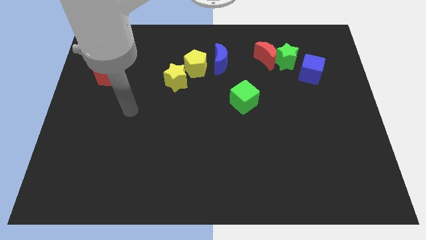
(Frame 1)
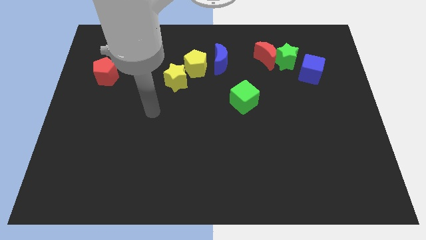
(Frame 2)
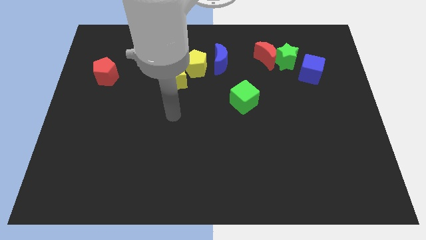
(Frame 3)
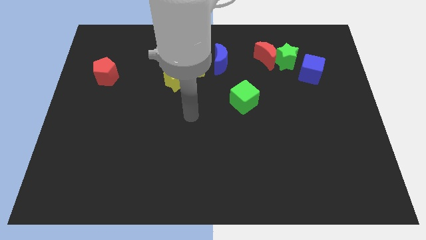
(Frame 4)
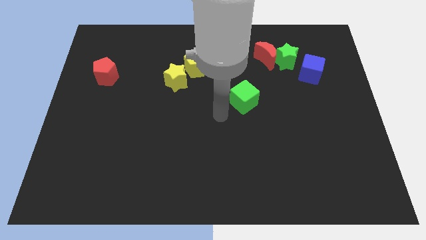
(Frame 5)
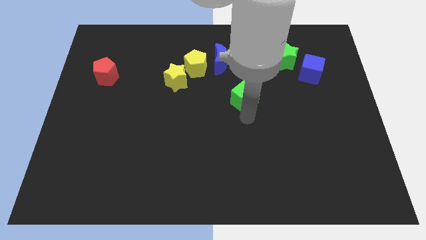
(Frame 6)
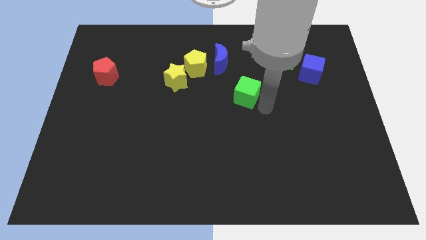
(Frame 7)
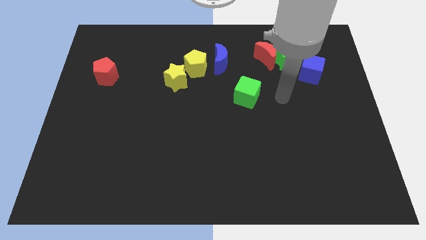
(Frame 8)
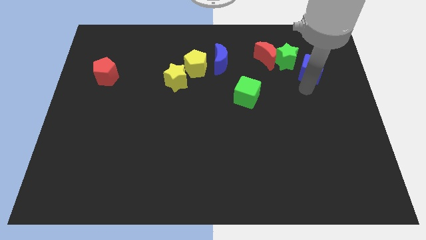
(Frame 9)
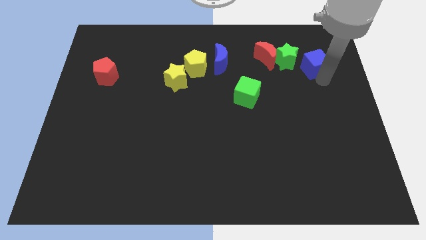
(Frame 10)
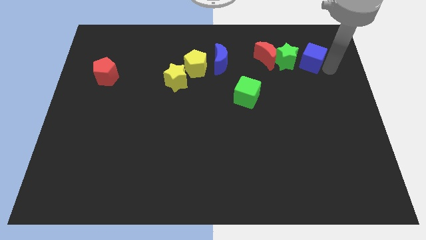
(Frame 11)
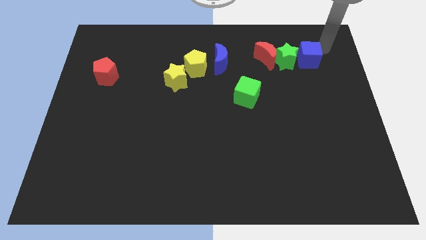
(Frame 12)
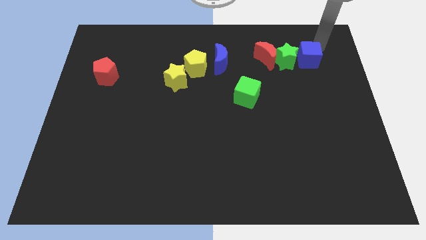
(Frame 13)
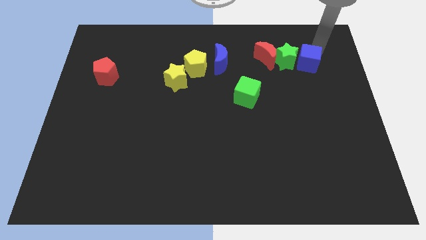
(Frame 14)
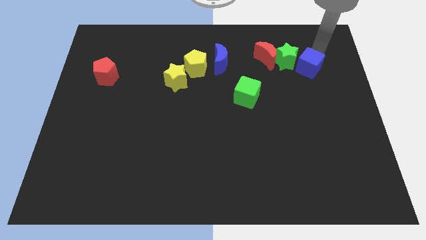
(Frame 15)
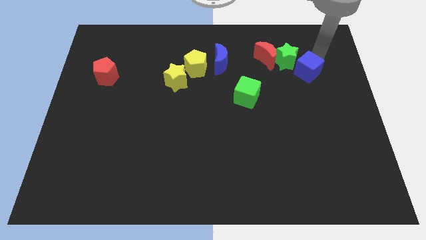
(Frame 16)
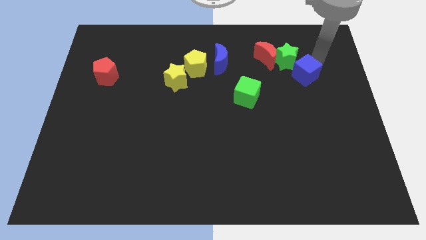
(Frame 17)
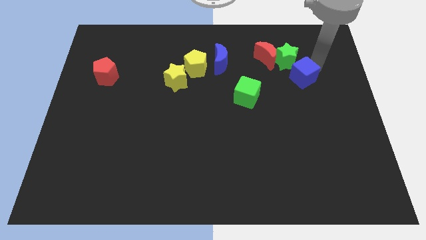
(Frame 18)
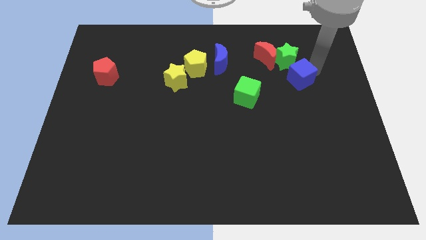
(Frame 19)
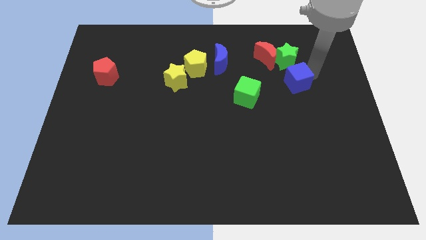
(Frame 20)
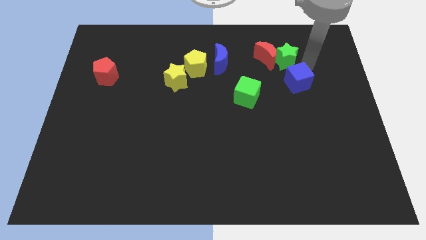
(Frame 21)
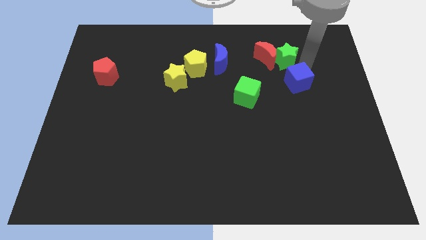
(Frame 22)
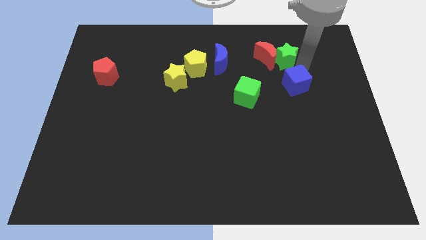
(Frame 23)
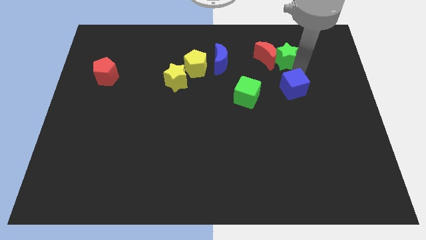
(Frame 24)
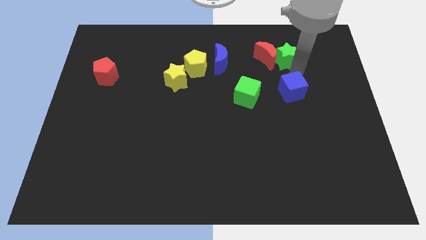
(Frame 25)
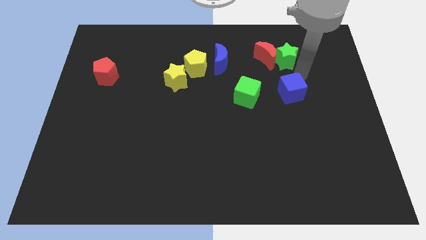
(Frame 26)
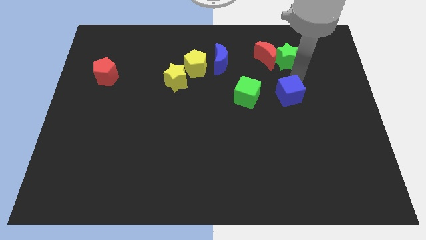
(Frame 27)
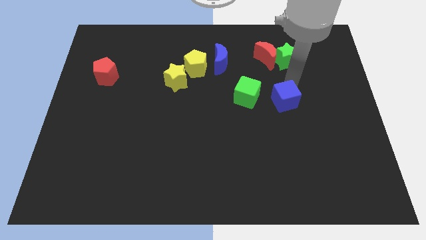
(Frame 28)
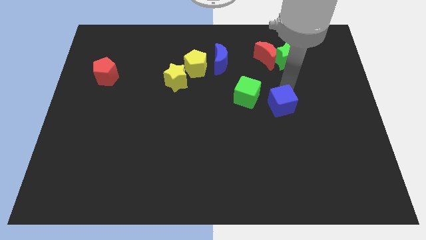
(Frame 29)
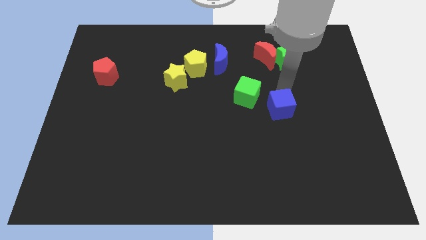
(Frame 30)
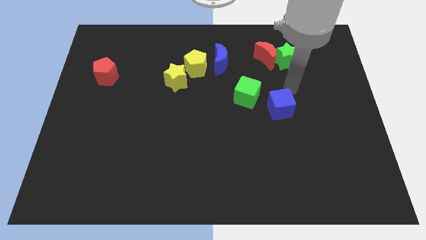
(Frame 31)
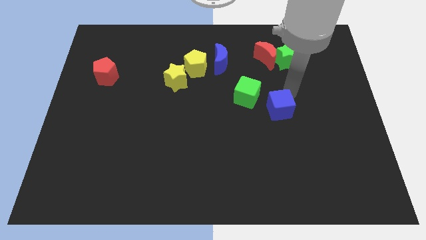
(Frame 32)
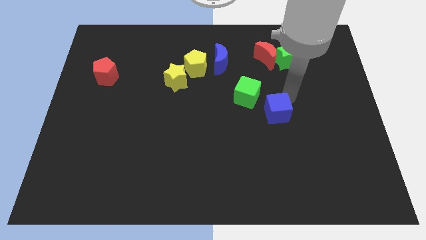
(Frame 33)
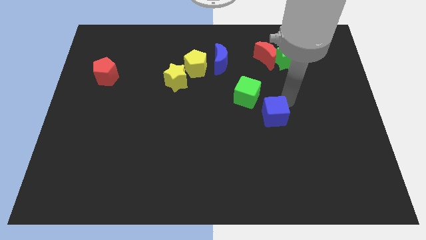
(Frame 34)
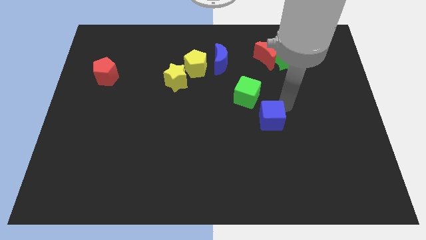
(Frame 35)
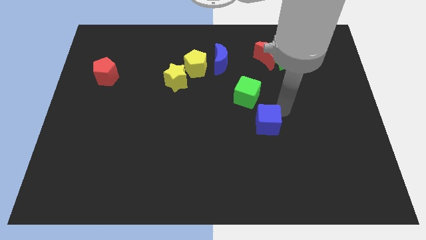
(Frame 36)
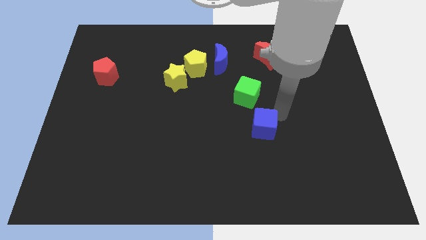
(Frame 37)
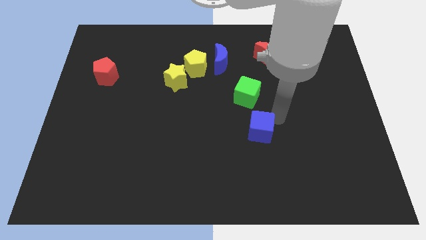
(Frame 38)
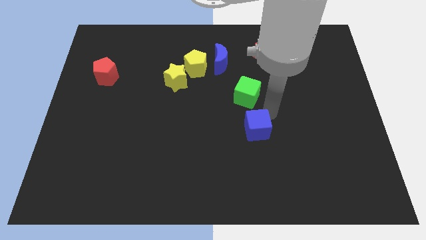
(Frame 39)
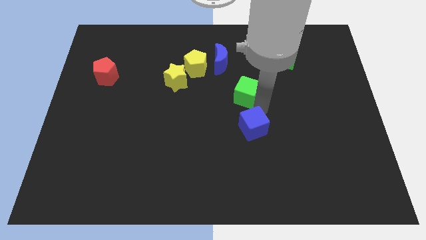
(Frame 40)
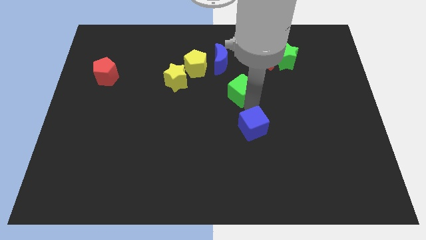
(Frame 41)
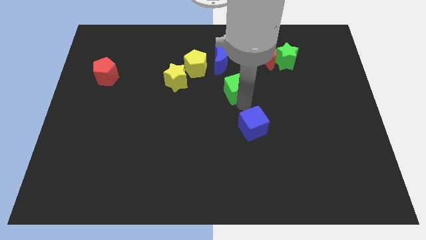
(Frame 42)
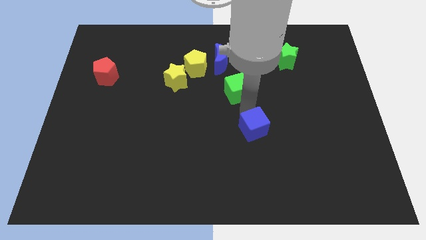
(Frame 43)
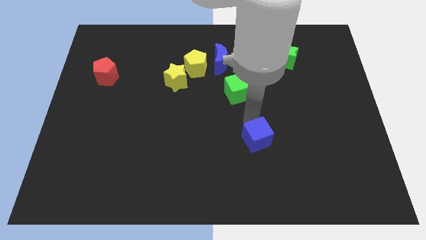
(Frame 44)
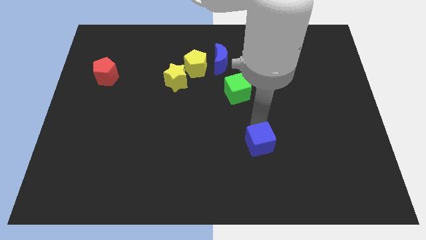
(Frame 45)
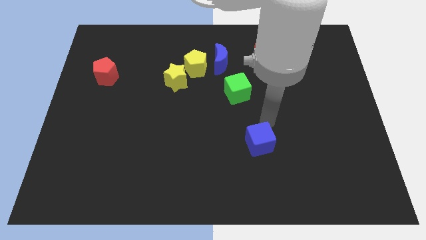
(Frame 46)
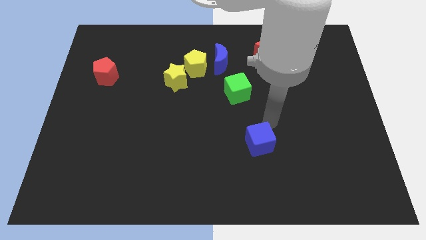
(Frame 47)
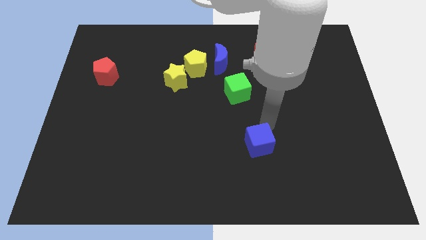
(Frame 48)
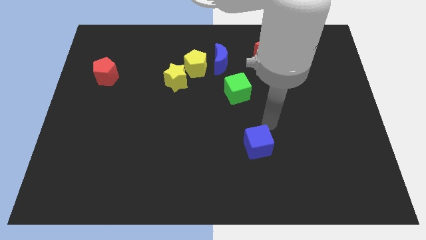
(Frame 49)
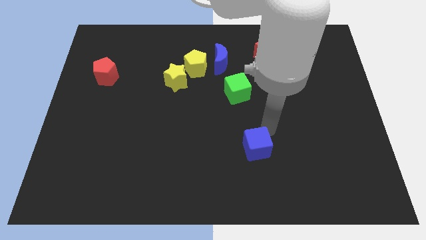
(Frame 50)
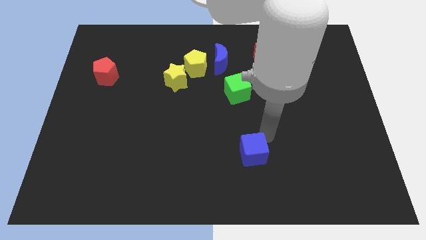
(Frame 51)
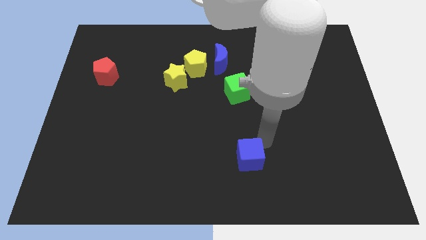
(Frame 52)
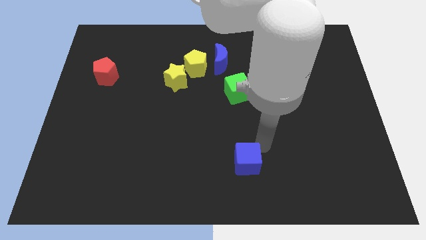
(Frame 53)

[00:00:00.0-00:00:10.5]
push the blue cube to the bottom
